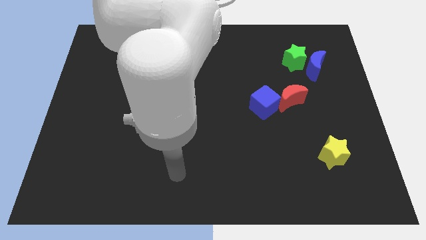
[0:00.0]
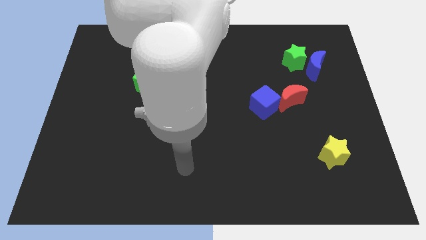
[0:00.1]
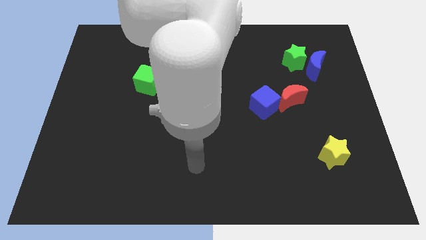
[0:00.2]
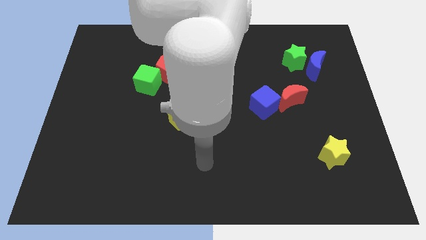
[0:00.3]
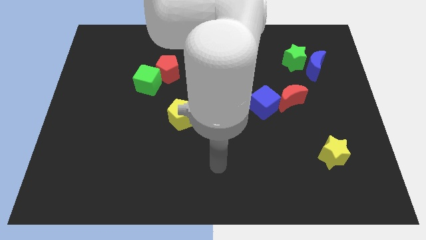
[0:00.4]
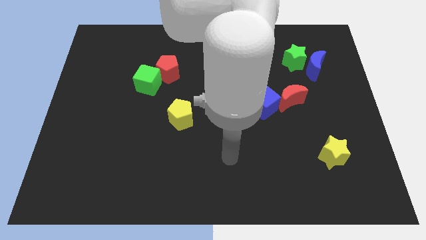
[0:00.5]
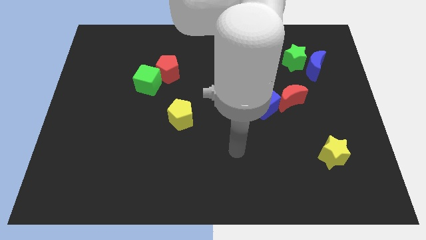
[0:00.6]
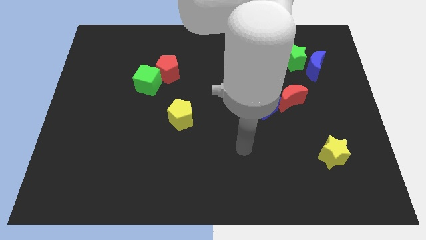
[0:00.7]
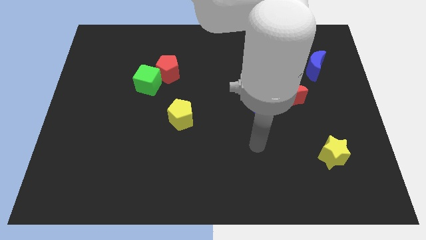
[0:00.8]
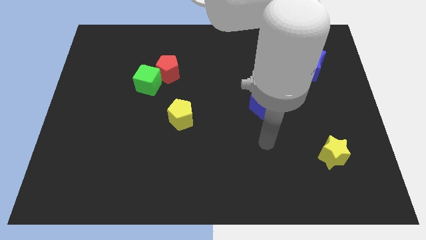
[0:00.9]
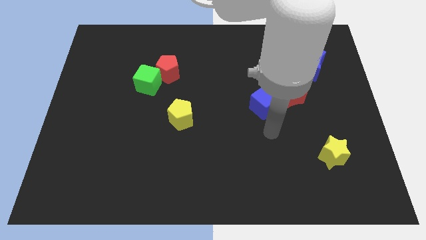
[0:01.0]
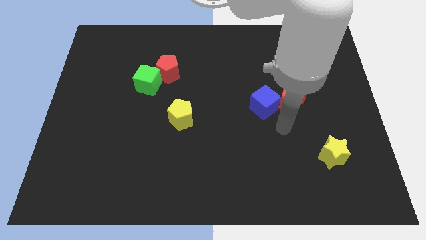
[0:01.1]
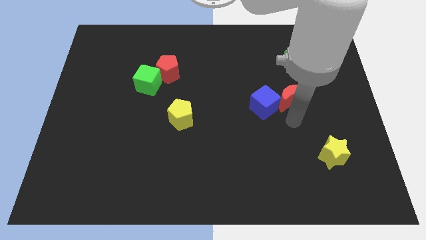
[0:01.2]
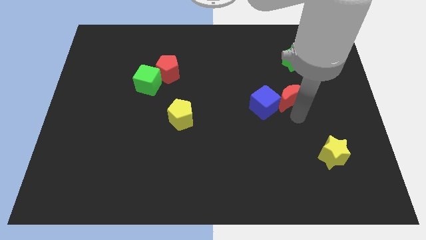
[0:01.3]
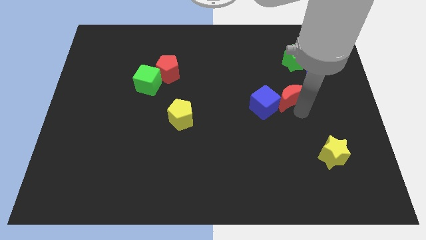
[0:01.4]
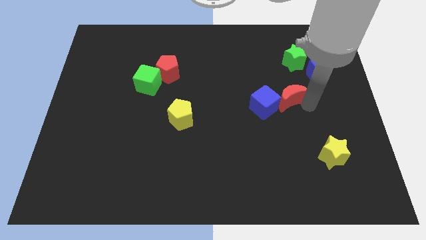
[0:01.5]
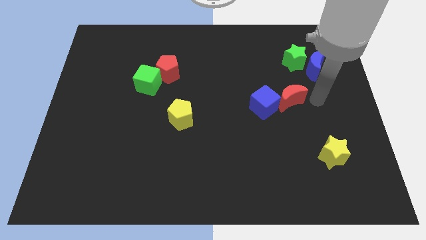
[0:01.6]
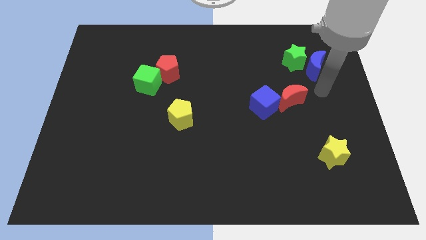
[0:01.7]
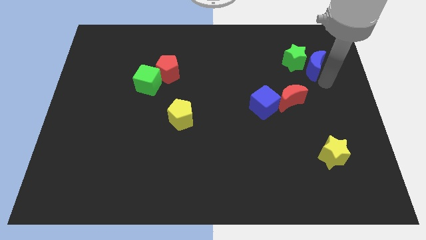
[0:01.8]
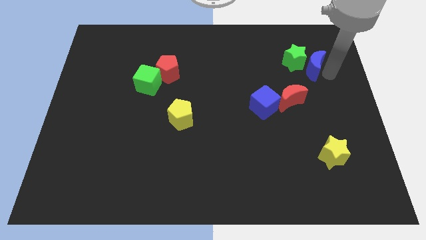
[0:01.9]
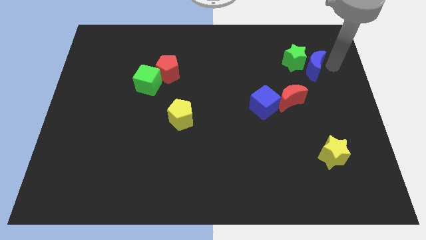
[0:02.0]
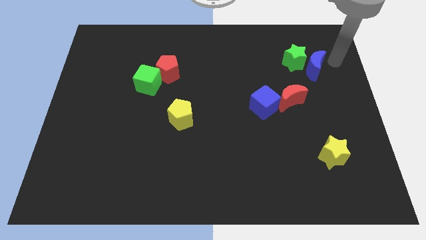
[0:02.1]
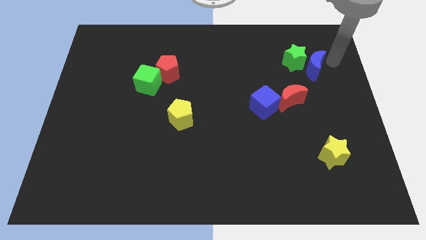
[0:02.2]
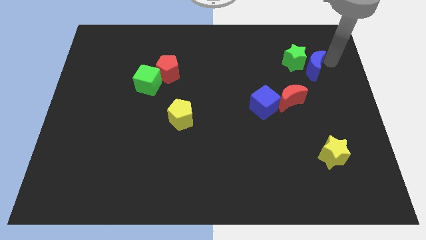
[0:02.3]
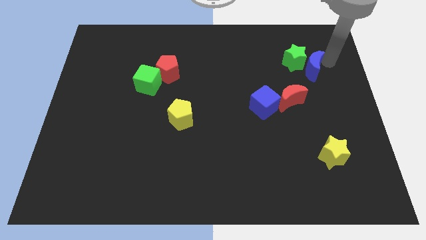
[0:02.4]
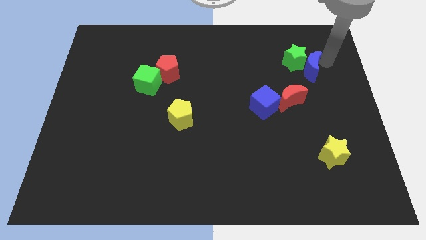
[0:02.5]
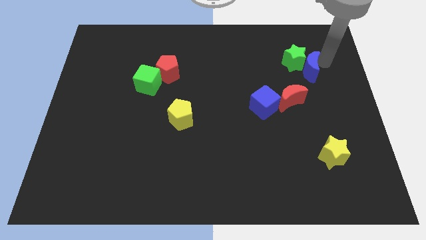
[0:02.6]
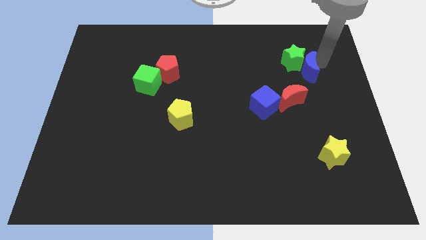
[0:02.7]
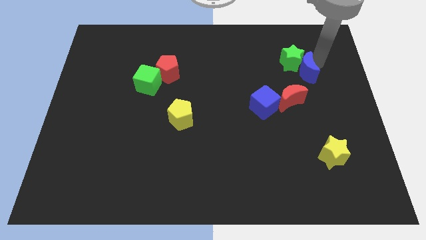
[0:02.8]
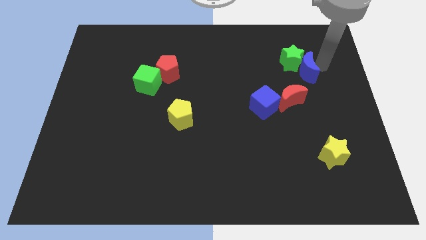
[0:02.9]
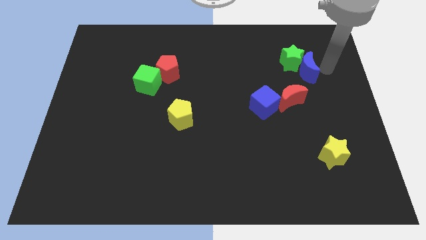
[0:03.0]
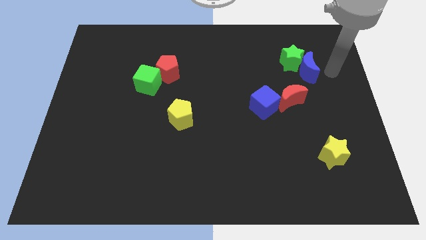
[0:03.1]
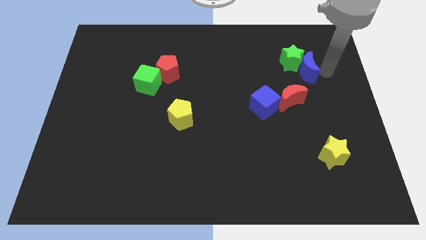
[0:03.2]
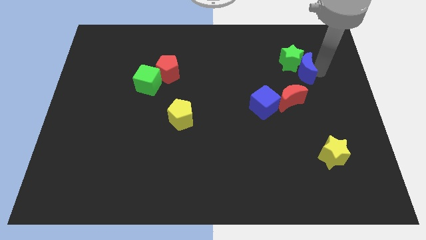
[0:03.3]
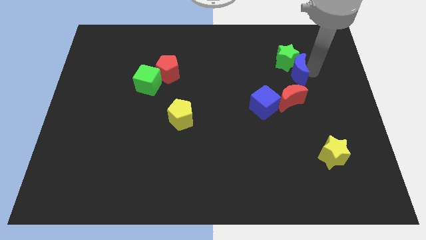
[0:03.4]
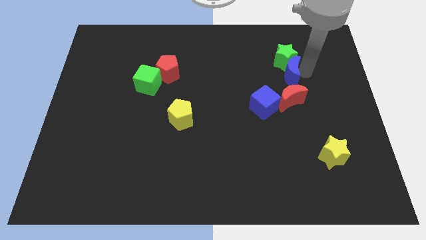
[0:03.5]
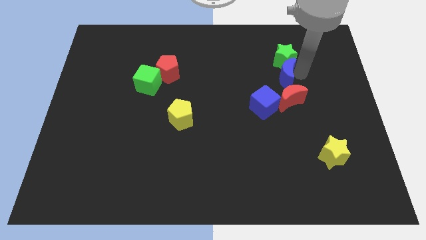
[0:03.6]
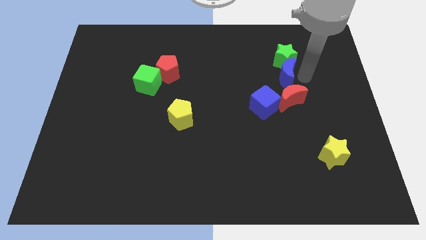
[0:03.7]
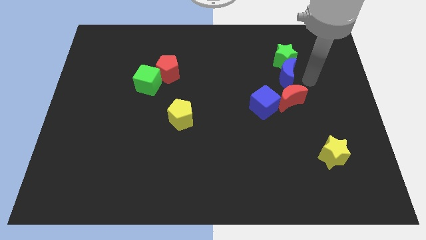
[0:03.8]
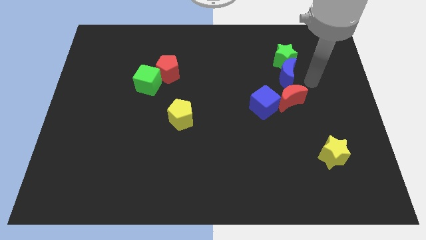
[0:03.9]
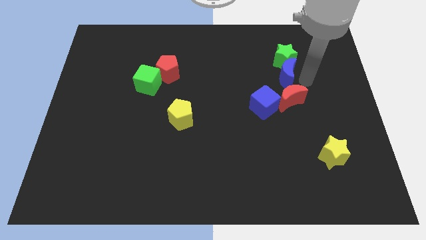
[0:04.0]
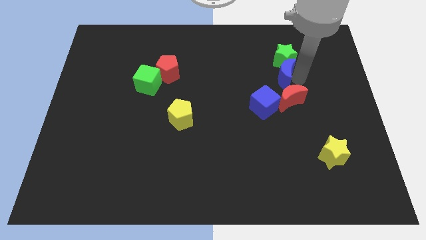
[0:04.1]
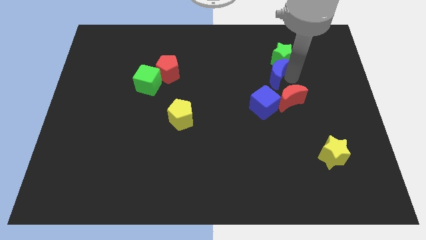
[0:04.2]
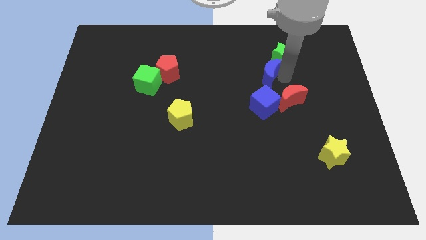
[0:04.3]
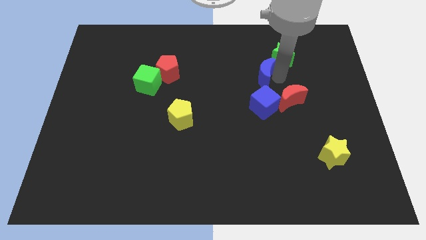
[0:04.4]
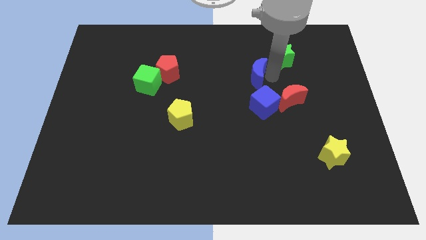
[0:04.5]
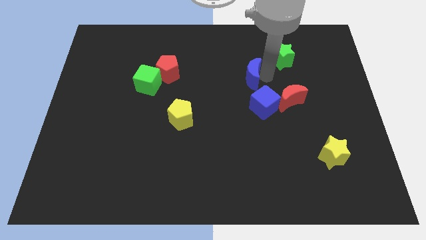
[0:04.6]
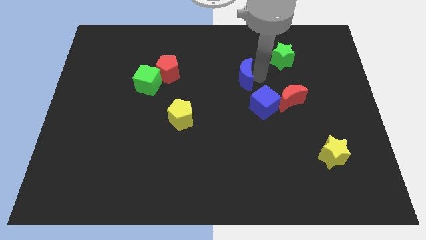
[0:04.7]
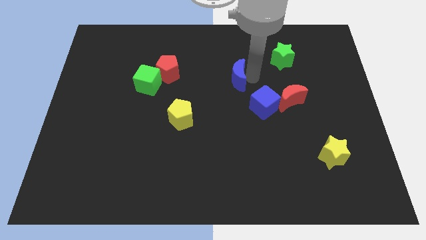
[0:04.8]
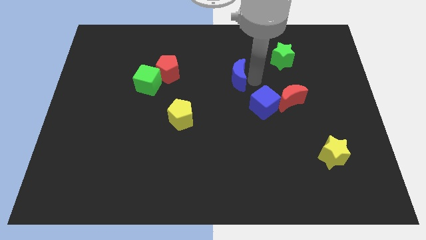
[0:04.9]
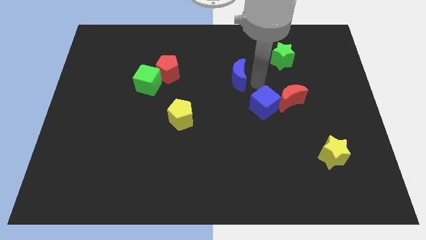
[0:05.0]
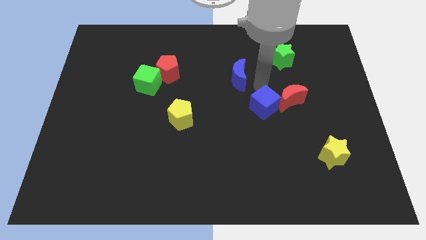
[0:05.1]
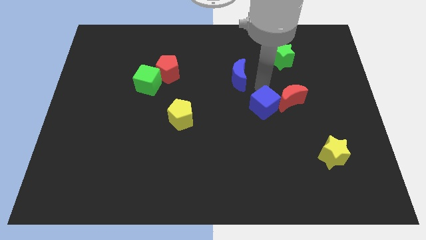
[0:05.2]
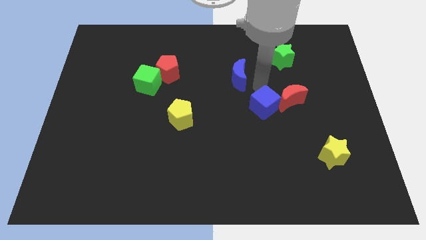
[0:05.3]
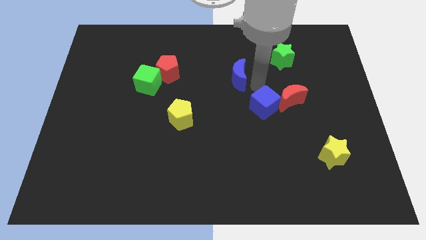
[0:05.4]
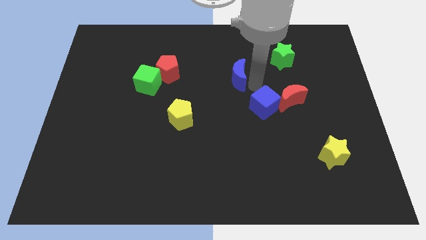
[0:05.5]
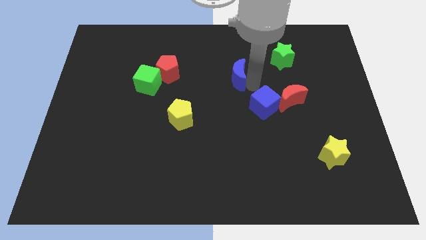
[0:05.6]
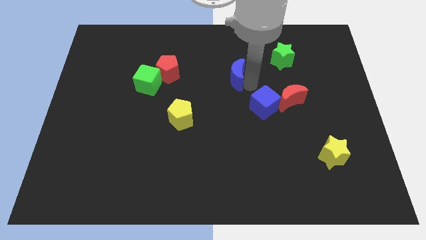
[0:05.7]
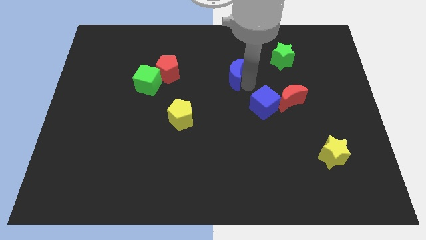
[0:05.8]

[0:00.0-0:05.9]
move the blue moon to the left

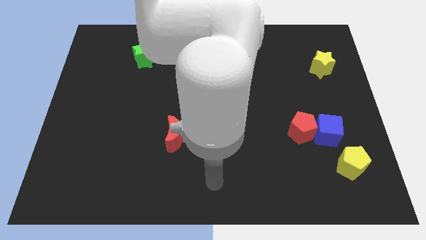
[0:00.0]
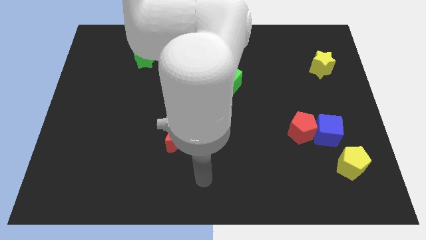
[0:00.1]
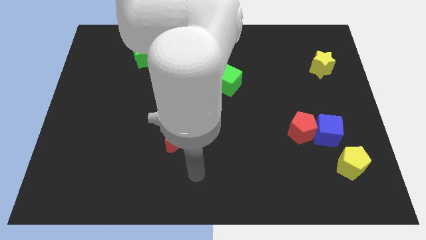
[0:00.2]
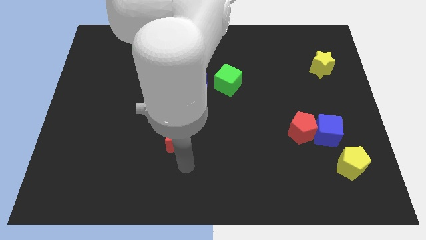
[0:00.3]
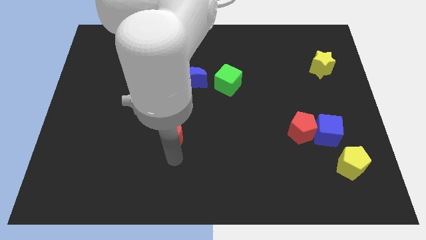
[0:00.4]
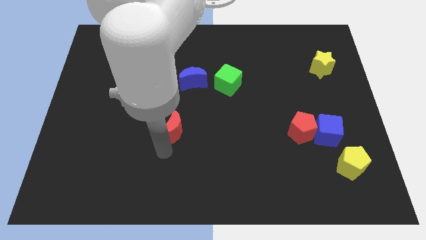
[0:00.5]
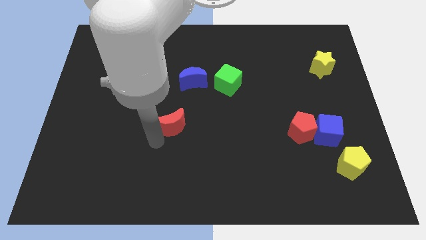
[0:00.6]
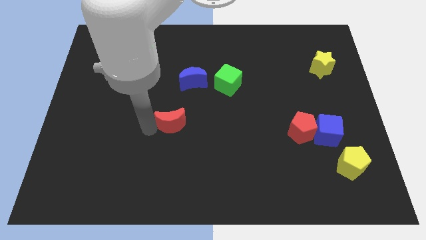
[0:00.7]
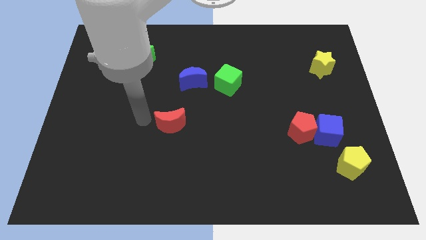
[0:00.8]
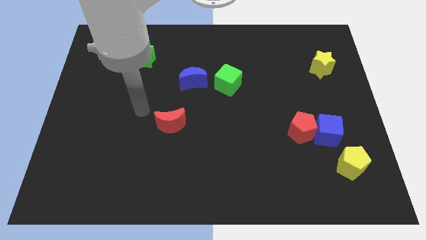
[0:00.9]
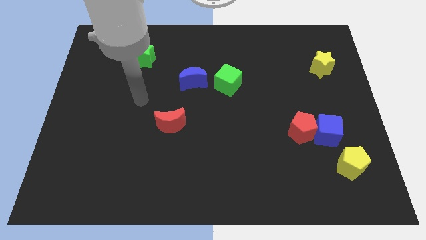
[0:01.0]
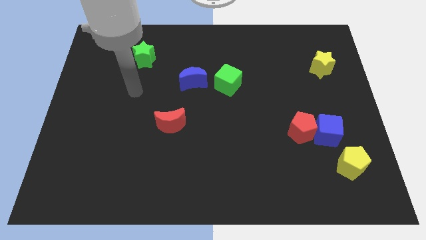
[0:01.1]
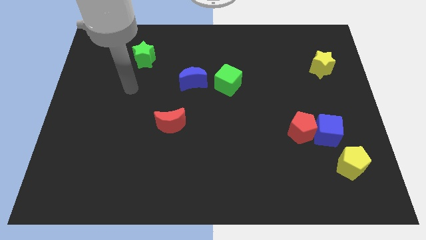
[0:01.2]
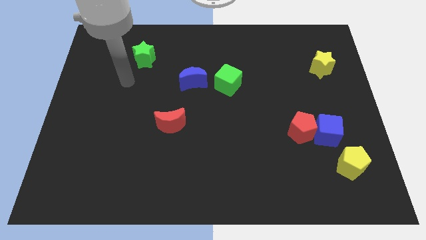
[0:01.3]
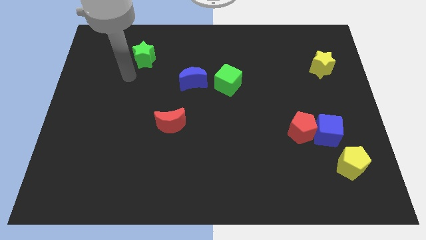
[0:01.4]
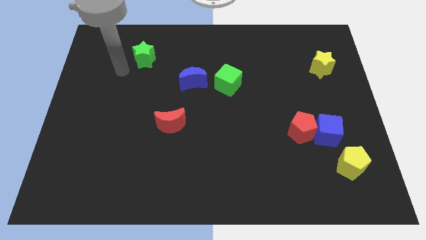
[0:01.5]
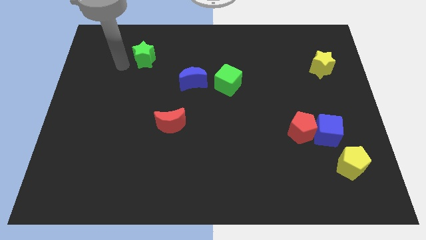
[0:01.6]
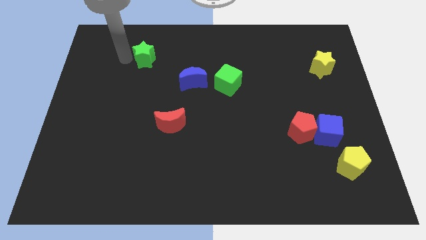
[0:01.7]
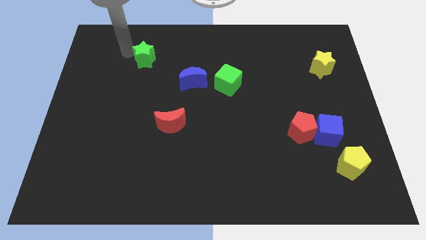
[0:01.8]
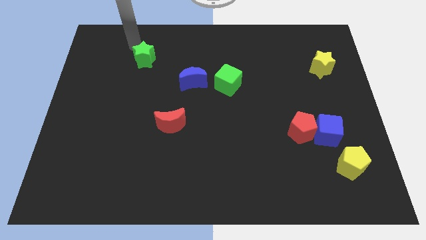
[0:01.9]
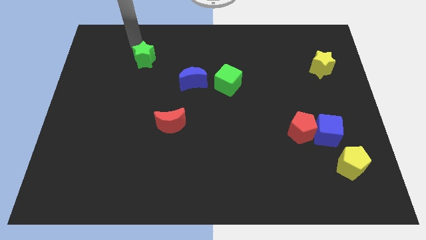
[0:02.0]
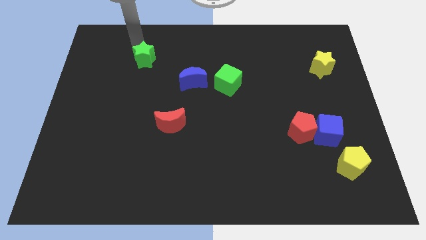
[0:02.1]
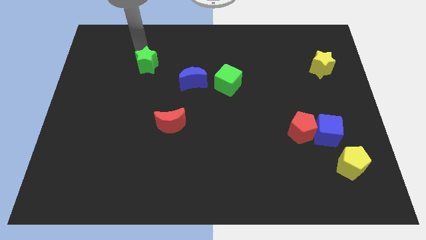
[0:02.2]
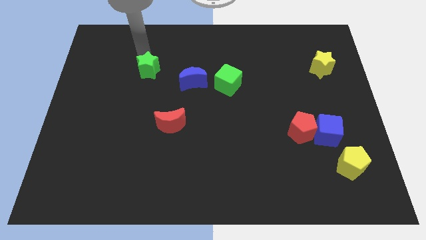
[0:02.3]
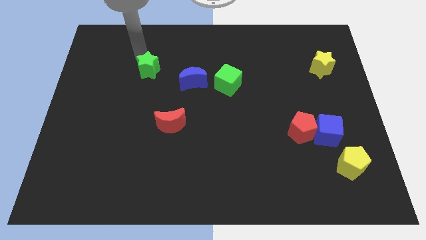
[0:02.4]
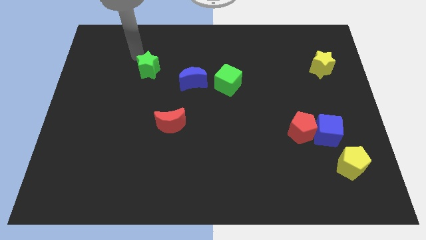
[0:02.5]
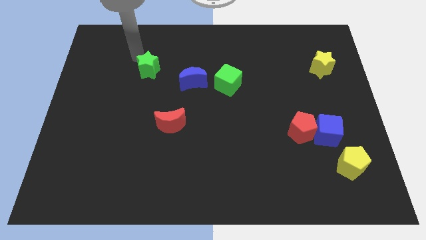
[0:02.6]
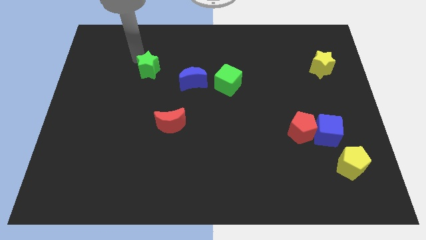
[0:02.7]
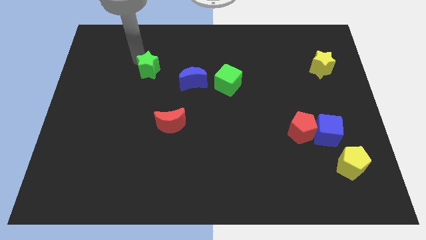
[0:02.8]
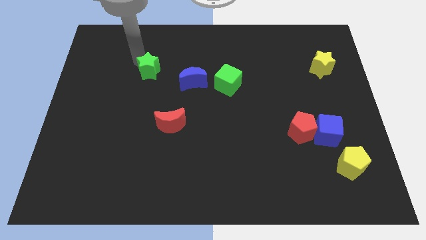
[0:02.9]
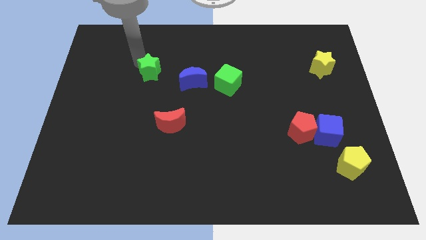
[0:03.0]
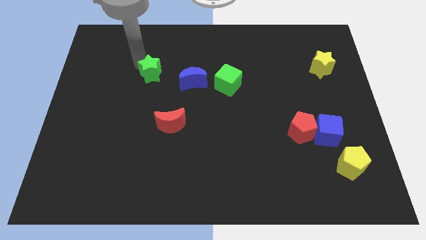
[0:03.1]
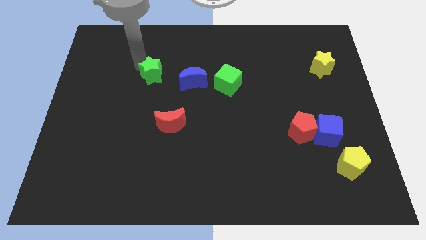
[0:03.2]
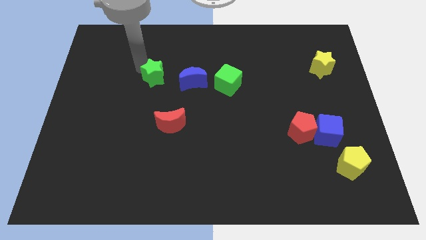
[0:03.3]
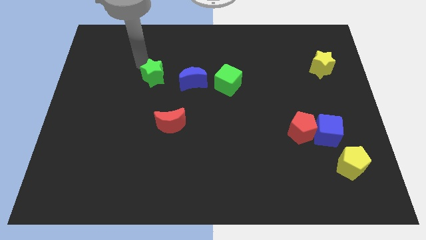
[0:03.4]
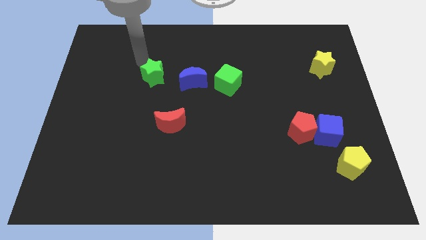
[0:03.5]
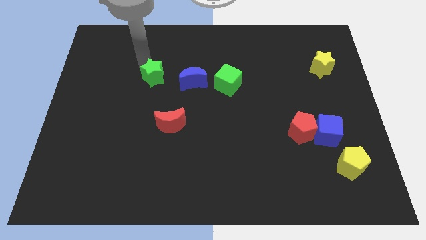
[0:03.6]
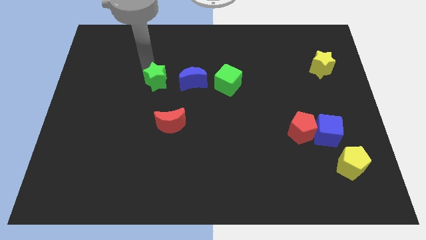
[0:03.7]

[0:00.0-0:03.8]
slide the green star down and to the right diagonally slightly
